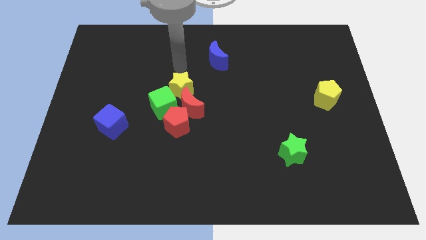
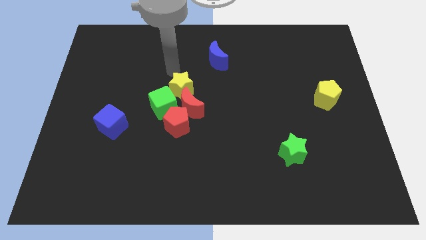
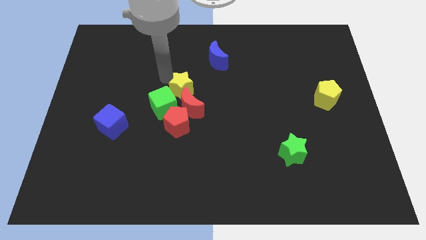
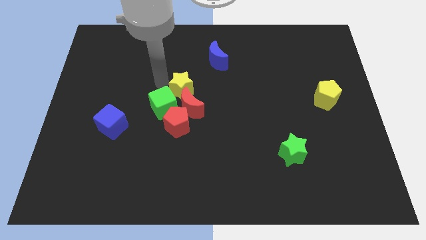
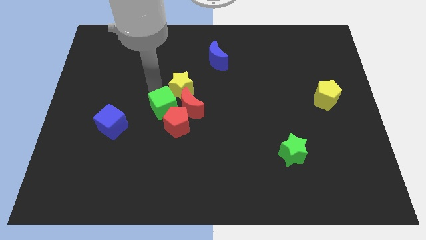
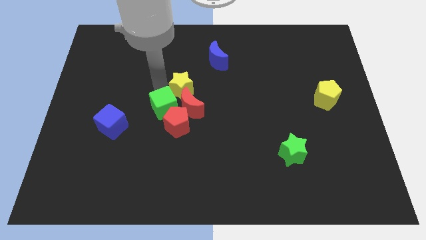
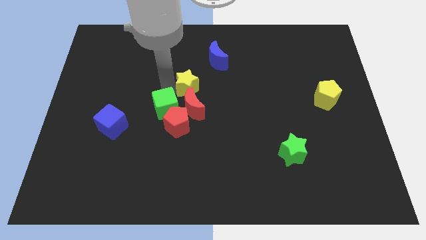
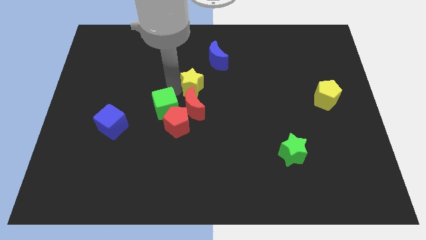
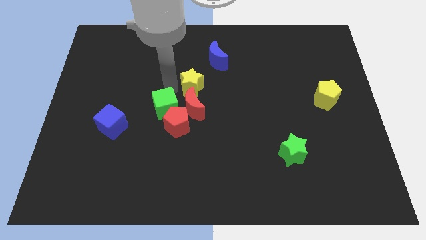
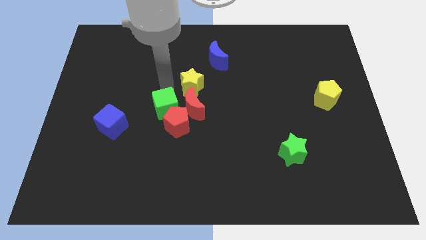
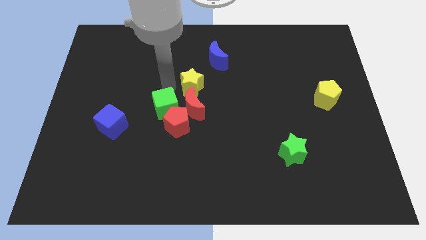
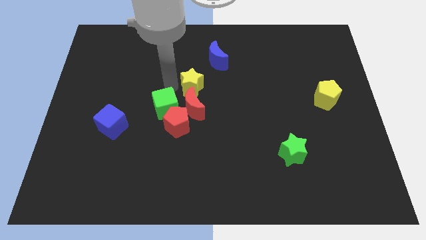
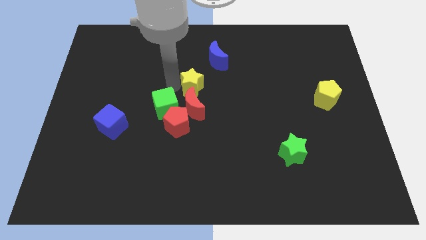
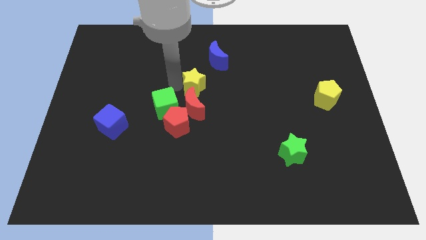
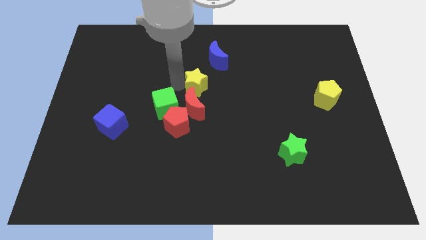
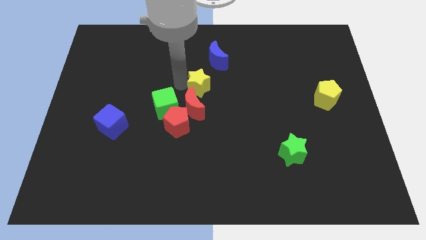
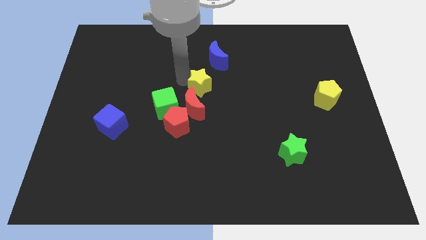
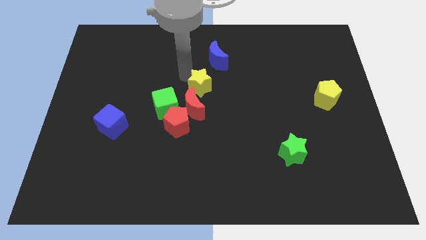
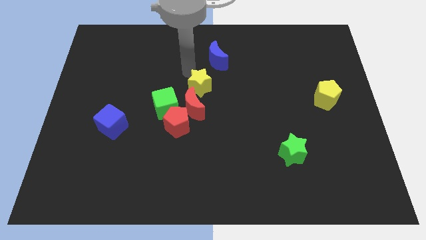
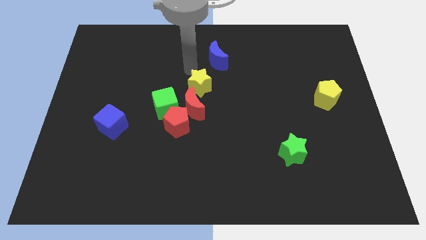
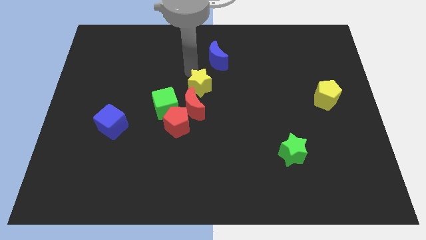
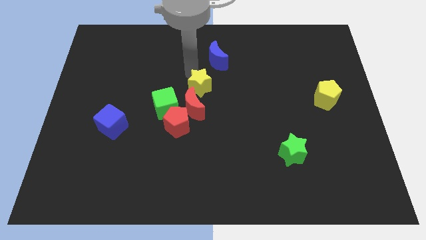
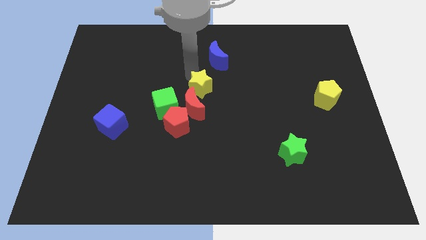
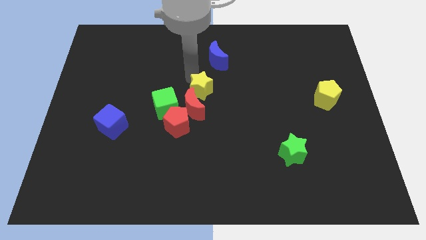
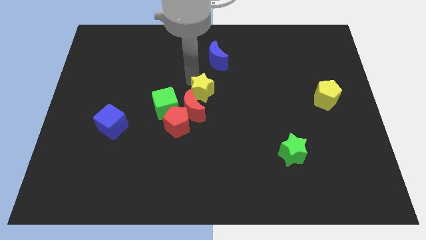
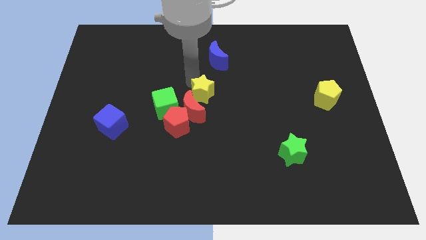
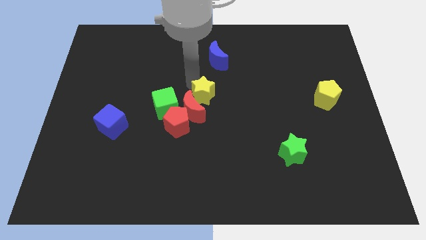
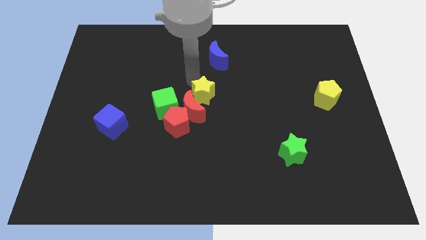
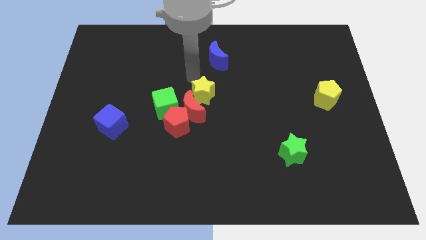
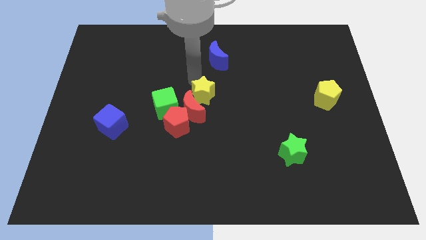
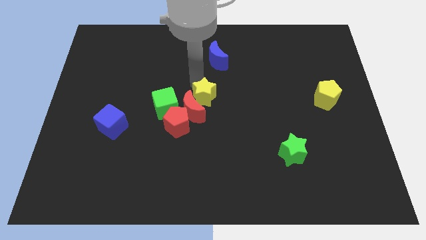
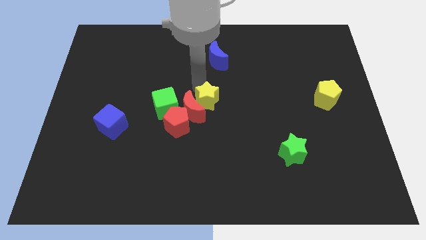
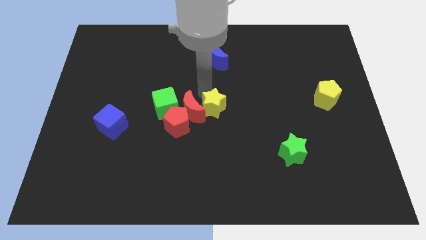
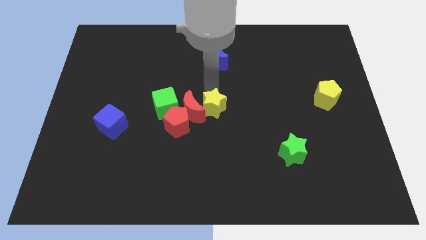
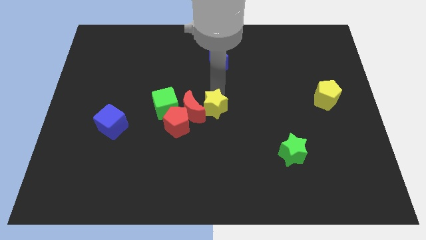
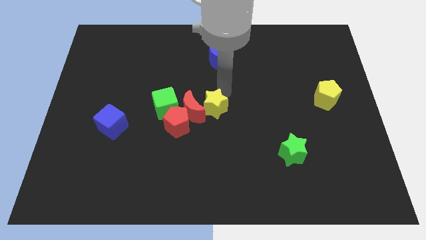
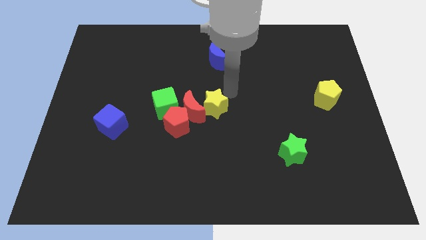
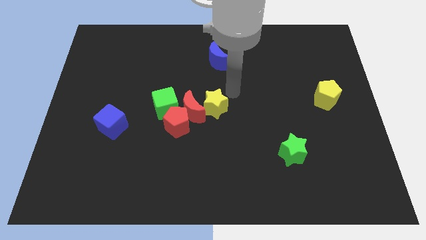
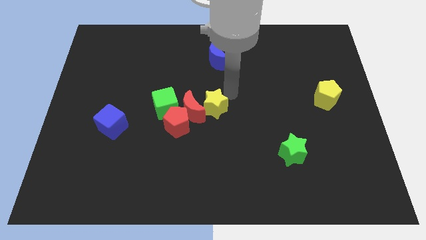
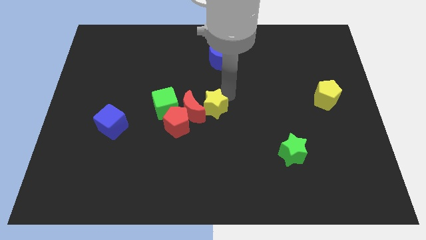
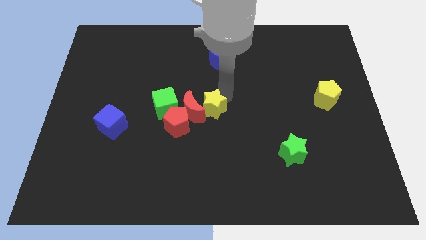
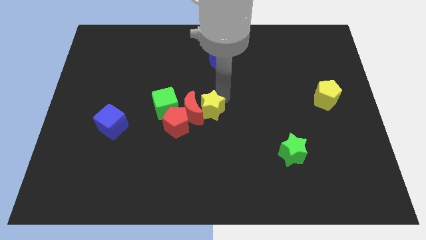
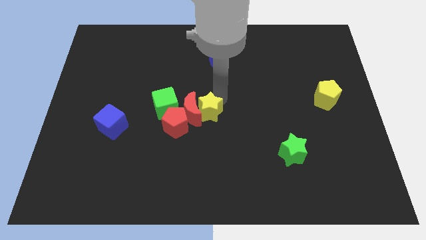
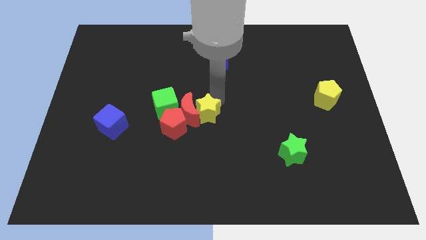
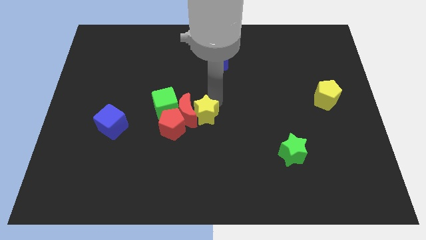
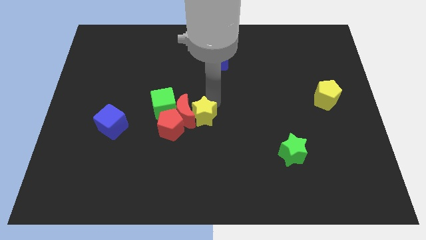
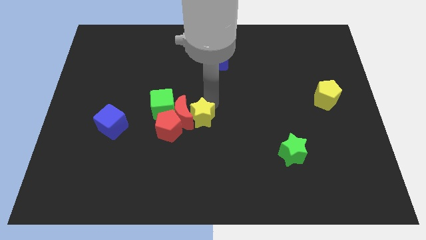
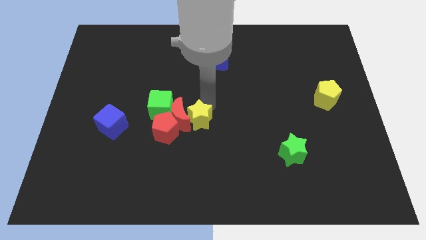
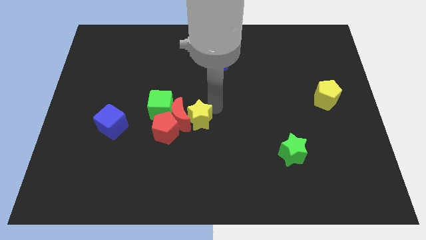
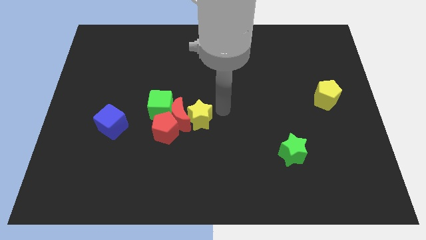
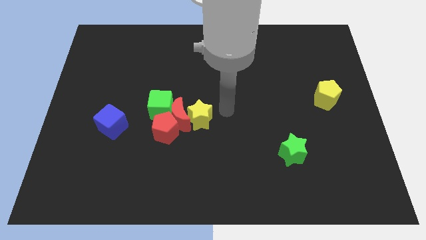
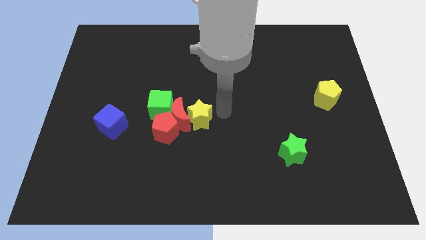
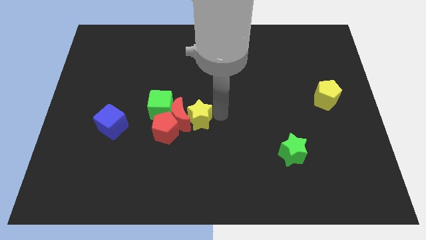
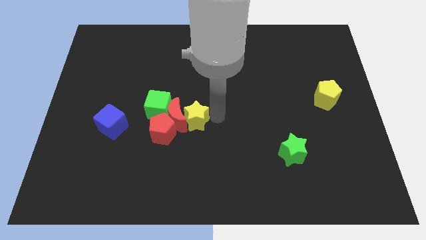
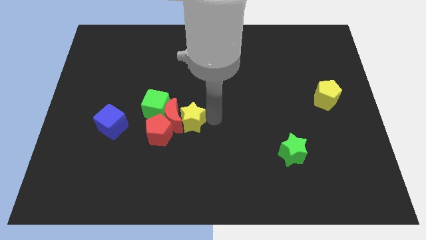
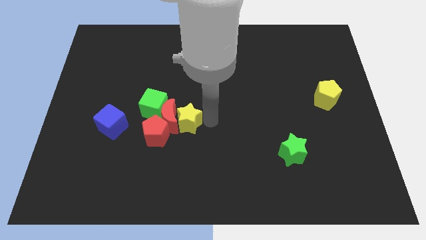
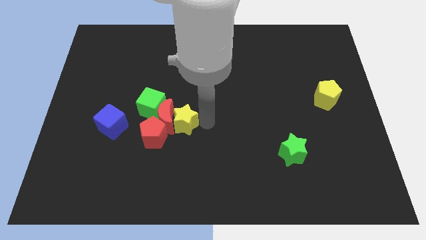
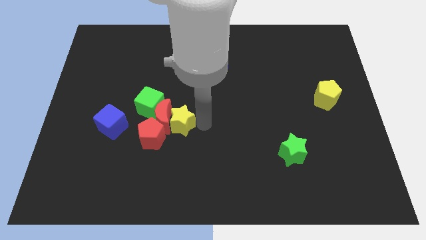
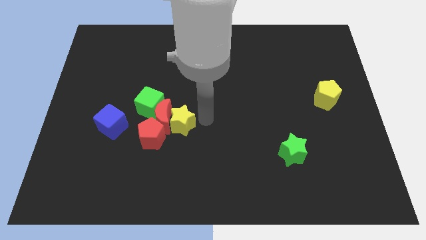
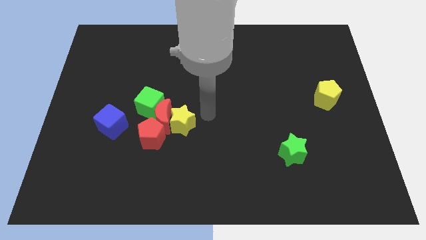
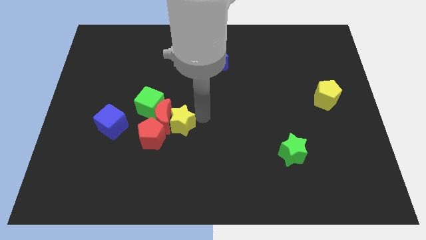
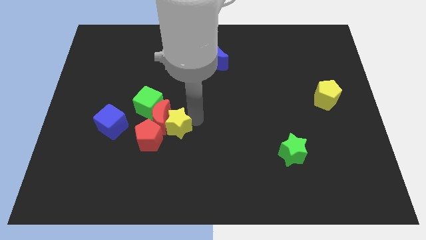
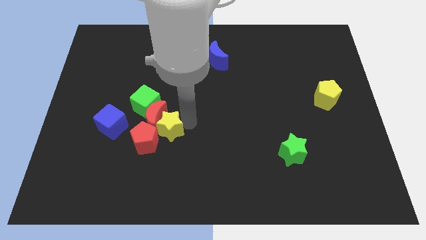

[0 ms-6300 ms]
move the yellow star close to the red pentagon

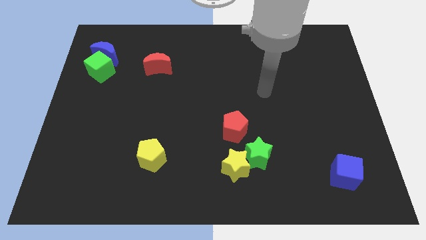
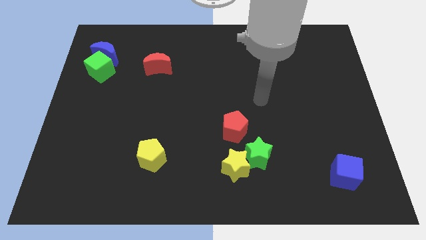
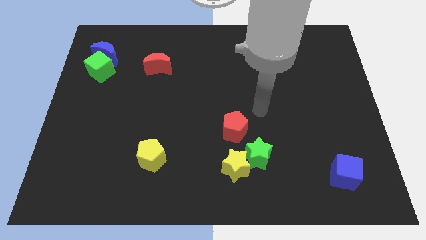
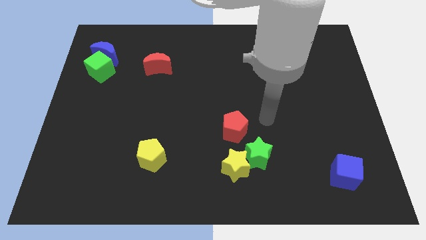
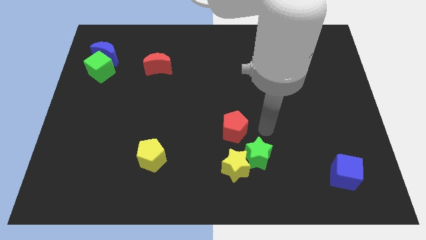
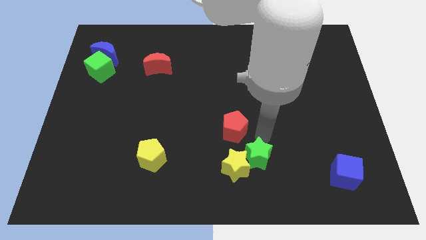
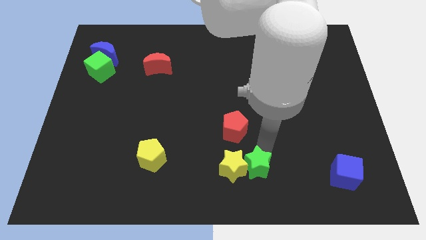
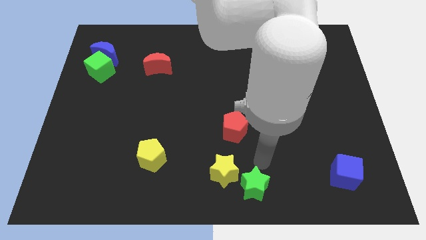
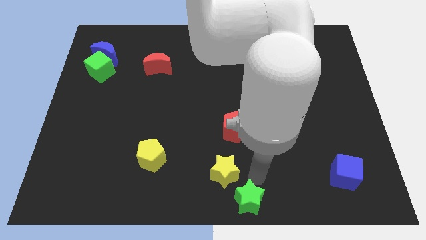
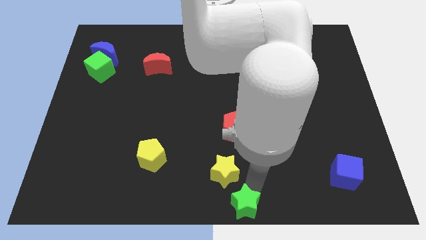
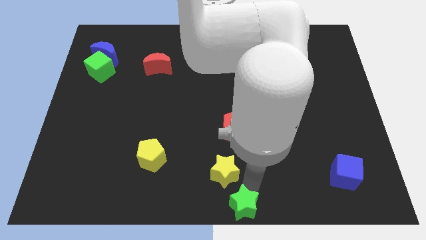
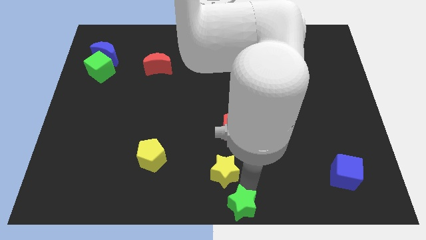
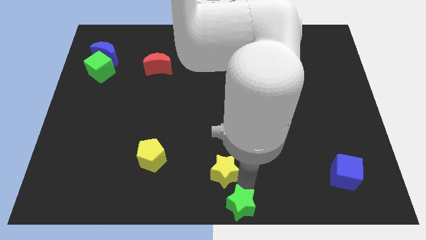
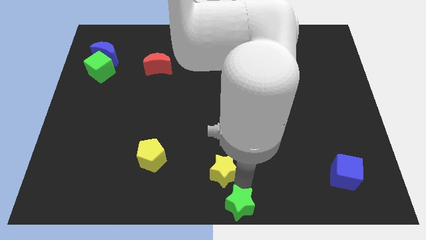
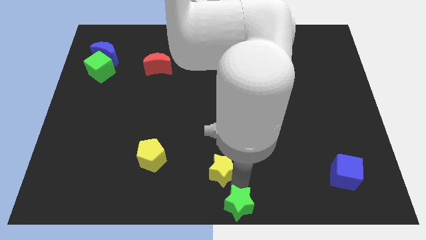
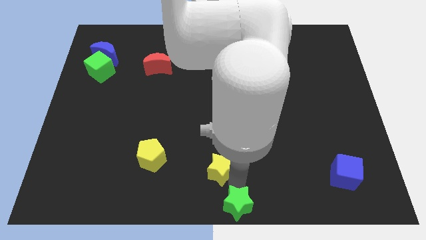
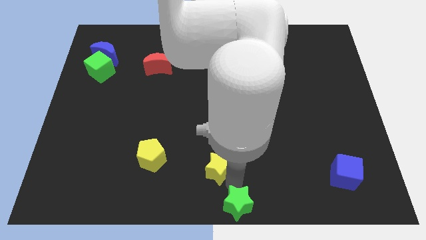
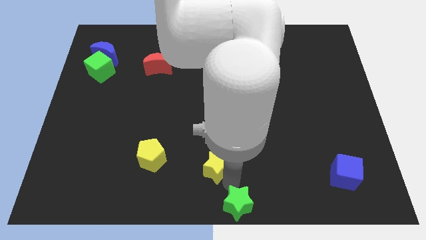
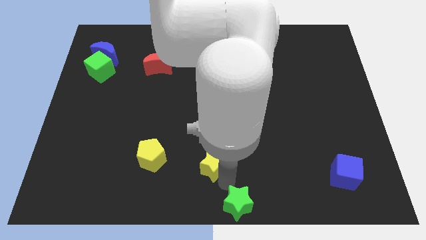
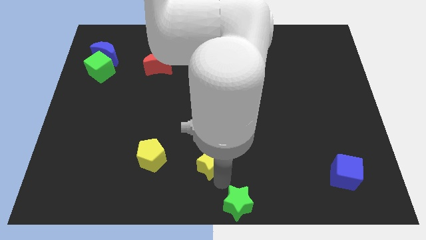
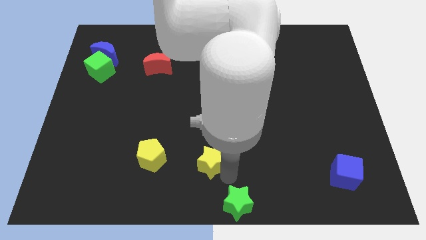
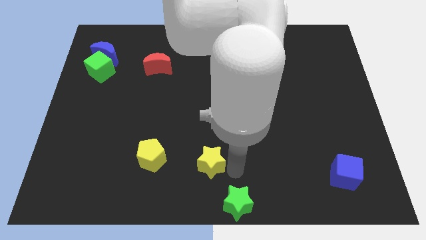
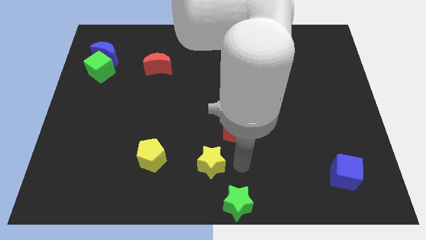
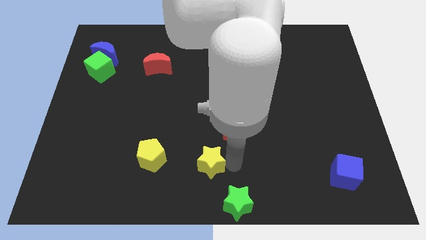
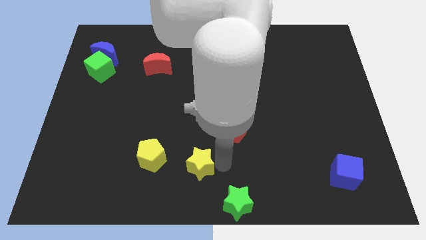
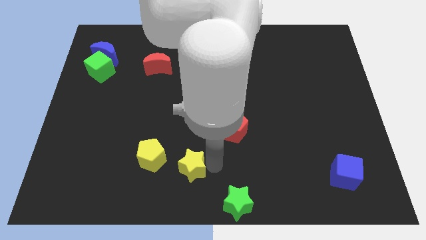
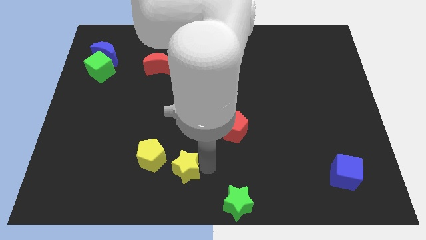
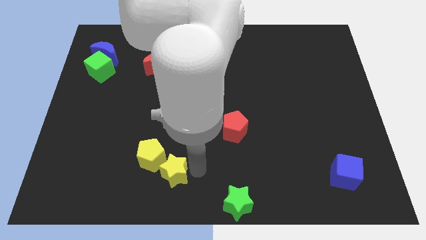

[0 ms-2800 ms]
push the yellow star towards the yellow pentagon
